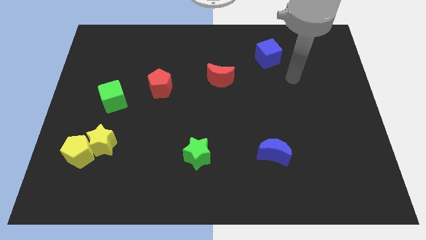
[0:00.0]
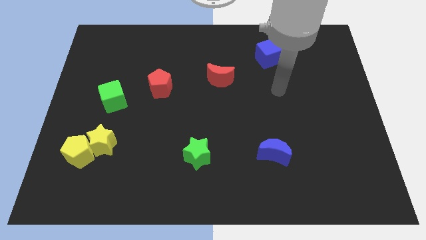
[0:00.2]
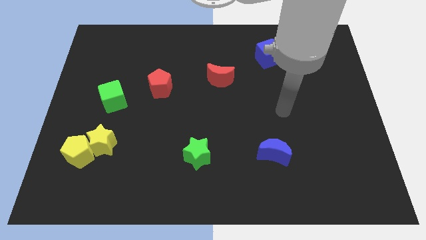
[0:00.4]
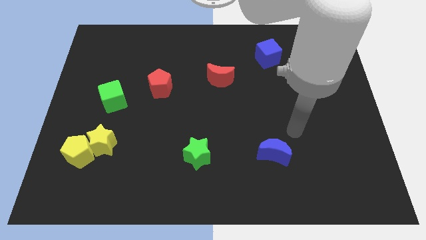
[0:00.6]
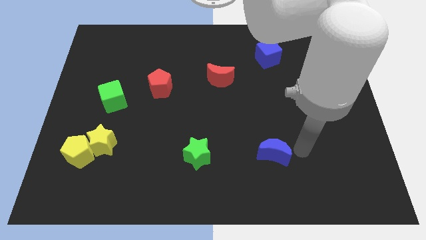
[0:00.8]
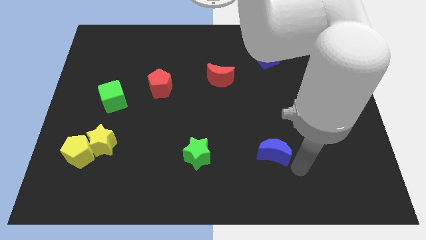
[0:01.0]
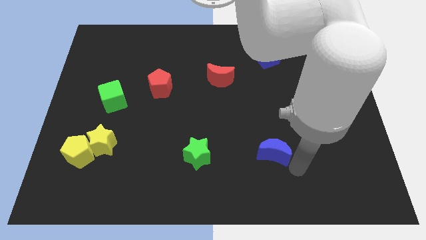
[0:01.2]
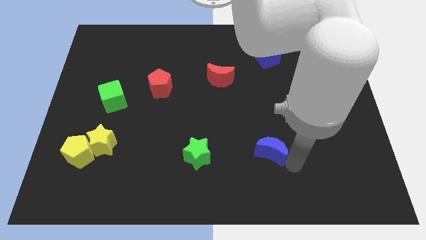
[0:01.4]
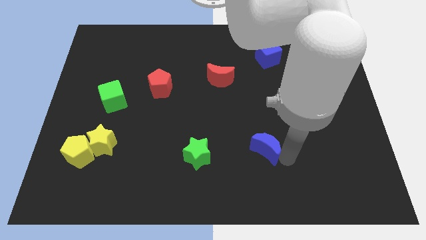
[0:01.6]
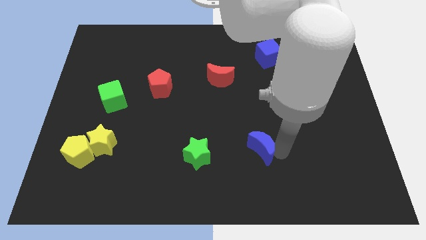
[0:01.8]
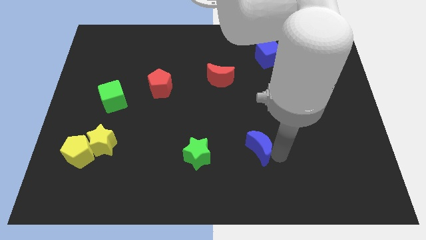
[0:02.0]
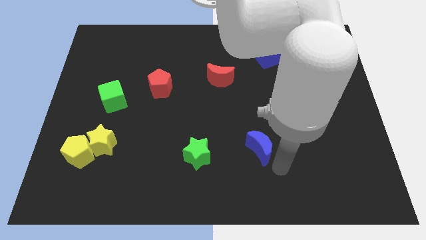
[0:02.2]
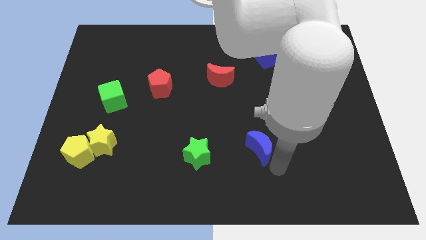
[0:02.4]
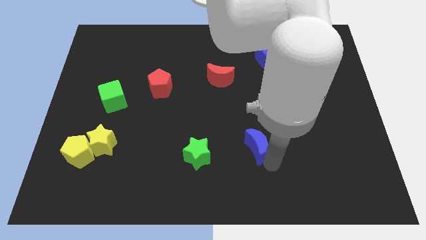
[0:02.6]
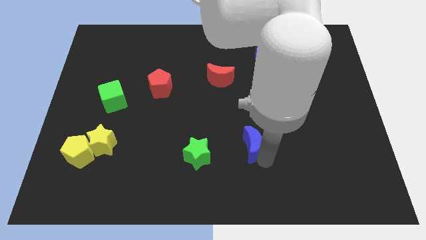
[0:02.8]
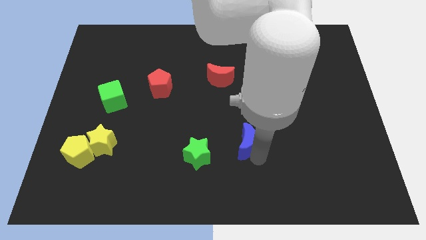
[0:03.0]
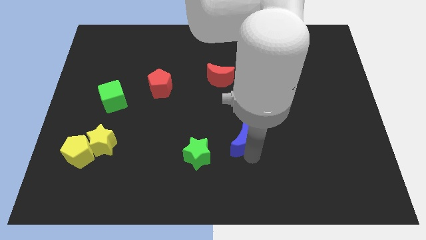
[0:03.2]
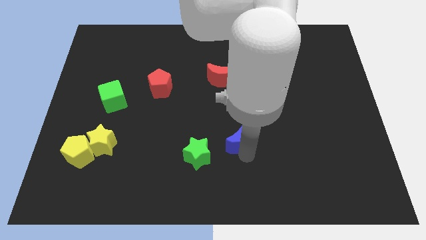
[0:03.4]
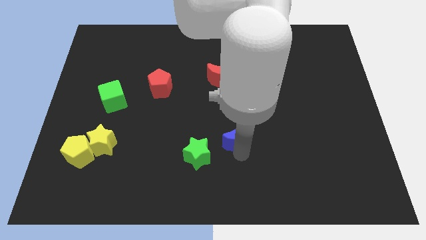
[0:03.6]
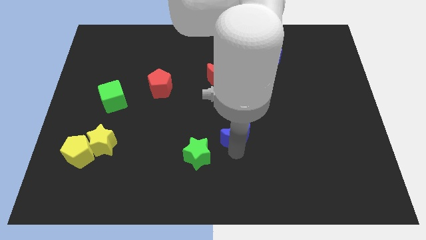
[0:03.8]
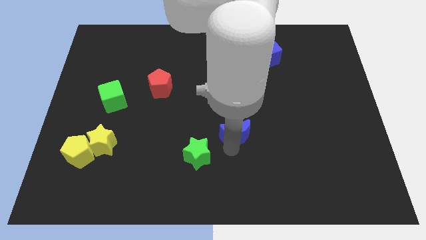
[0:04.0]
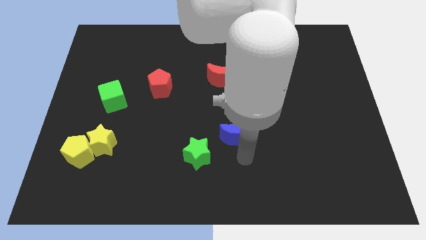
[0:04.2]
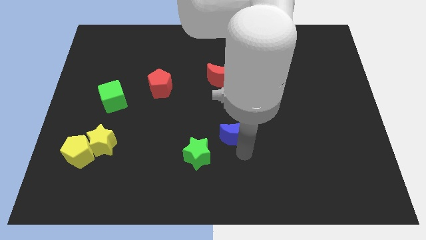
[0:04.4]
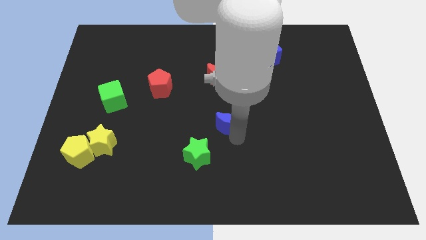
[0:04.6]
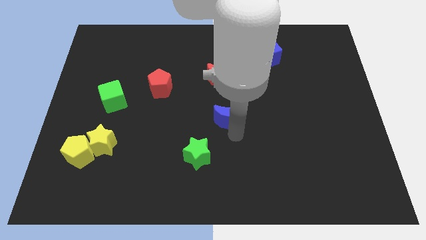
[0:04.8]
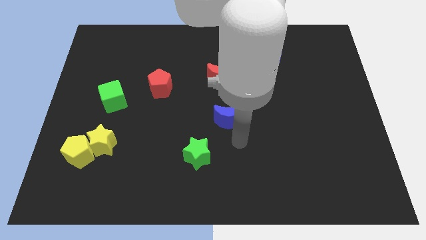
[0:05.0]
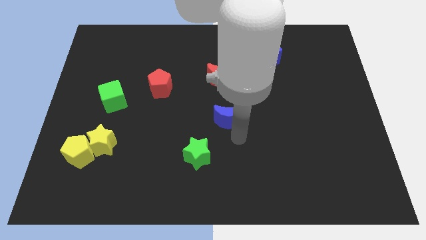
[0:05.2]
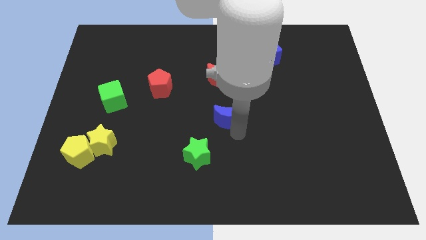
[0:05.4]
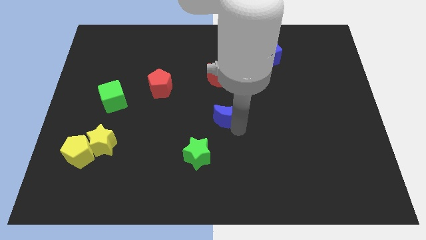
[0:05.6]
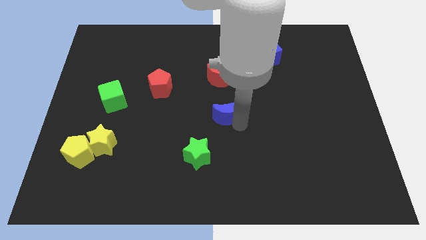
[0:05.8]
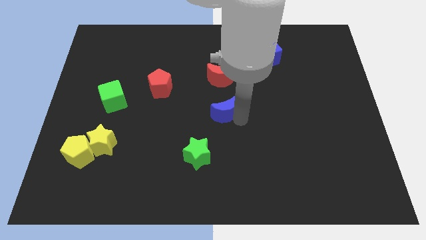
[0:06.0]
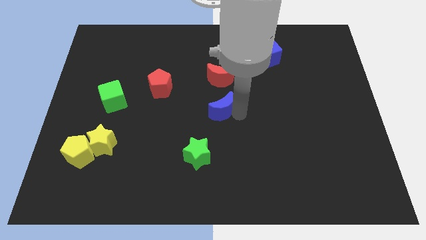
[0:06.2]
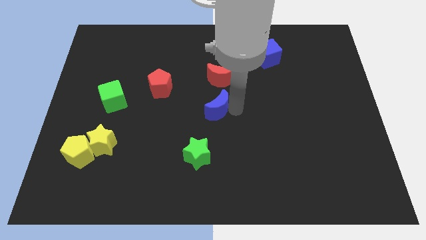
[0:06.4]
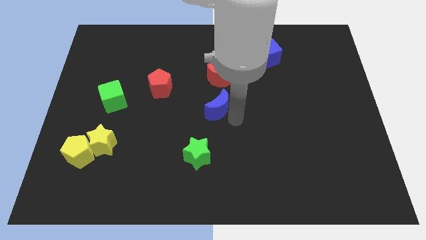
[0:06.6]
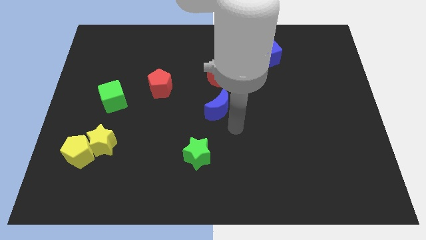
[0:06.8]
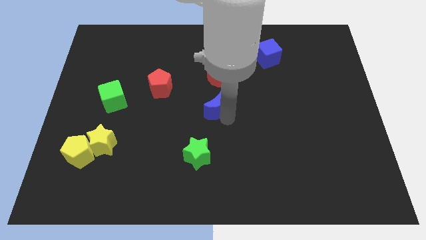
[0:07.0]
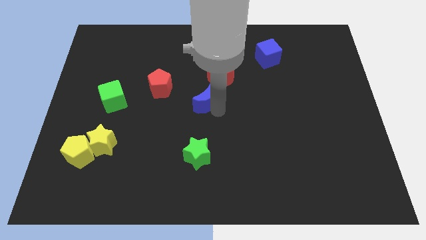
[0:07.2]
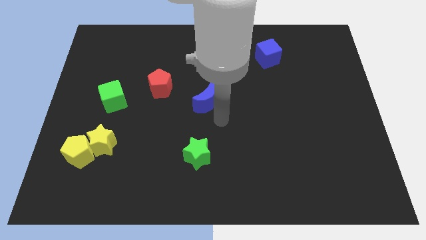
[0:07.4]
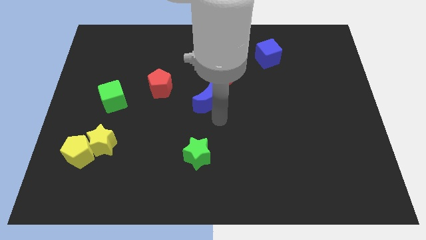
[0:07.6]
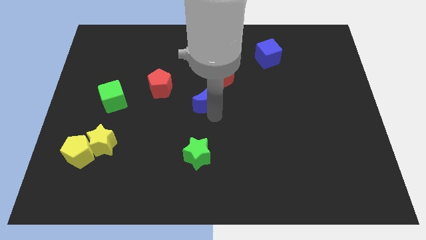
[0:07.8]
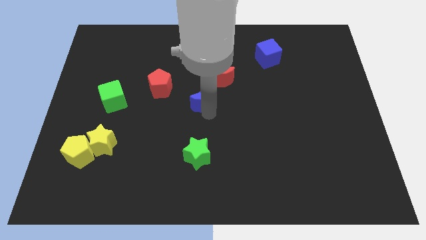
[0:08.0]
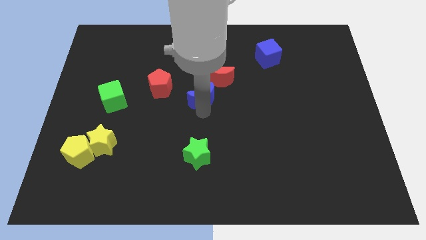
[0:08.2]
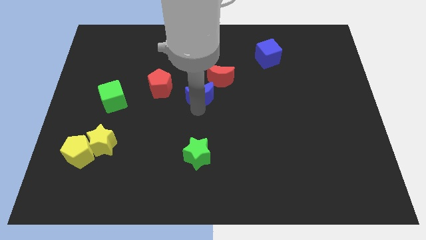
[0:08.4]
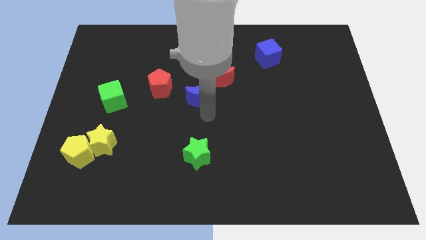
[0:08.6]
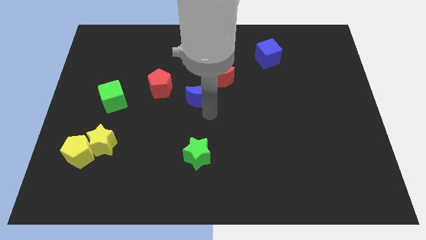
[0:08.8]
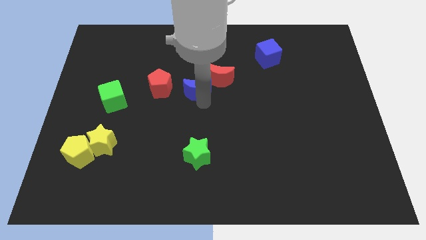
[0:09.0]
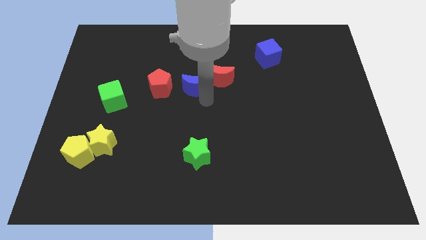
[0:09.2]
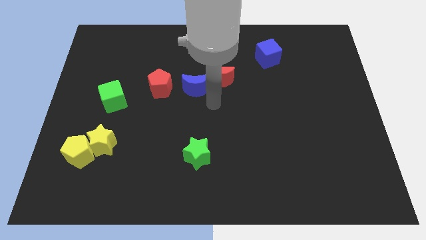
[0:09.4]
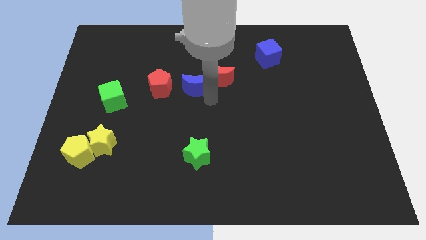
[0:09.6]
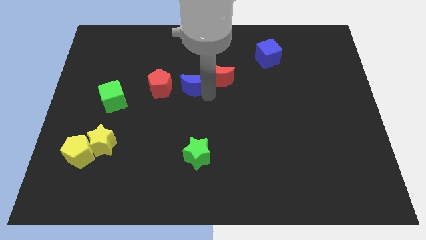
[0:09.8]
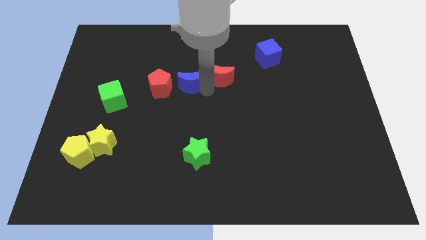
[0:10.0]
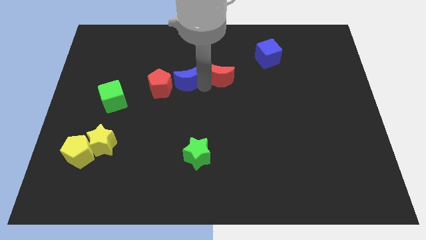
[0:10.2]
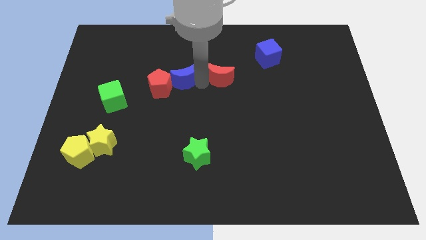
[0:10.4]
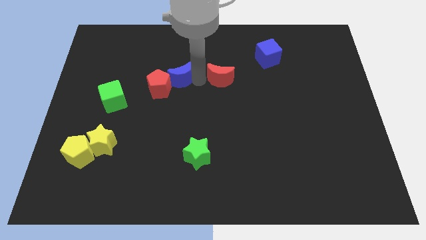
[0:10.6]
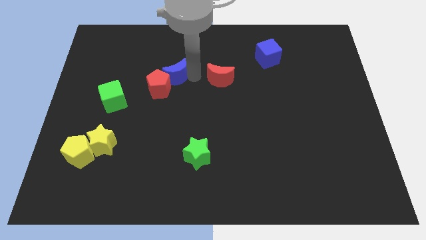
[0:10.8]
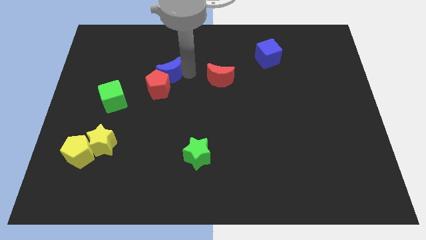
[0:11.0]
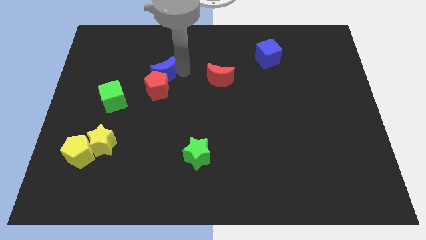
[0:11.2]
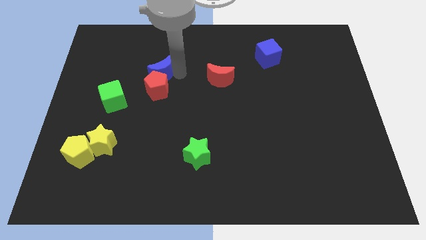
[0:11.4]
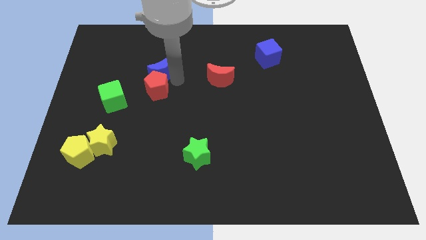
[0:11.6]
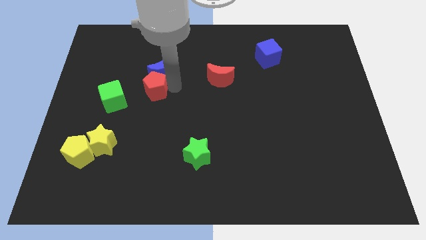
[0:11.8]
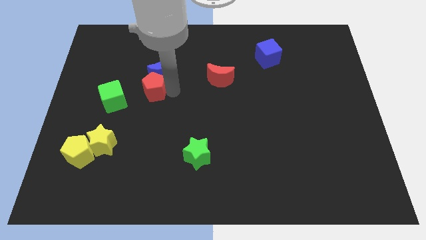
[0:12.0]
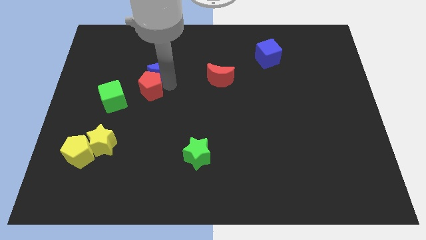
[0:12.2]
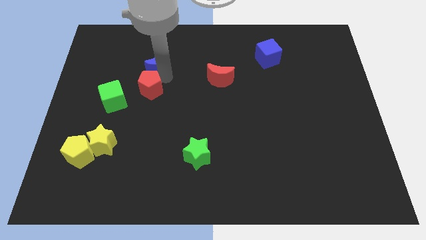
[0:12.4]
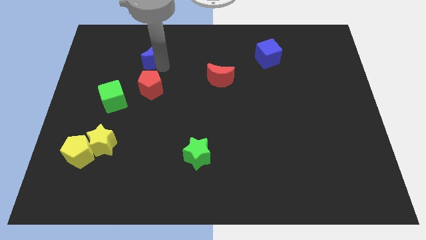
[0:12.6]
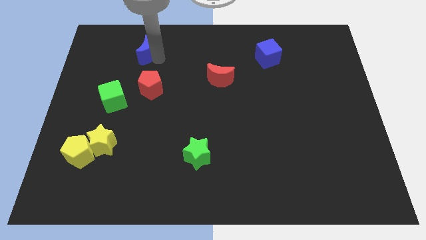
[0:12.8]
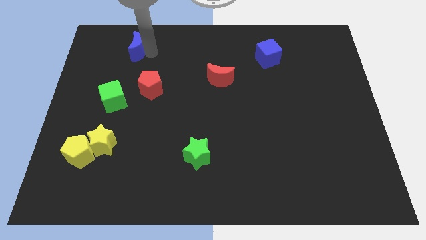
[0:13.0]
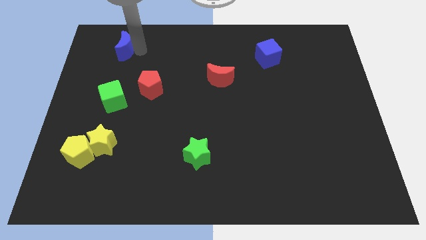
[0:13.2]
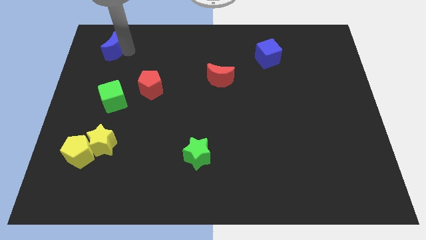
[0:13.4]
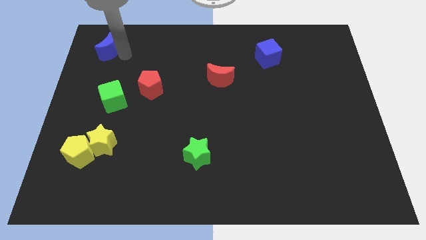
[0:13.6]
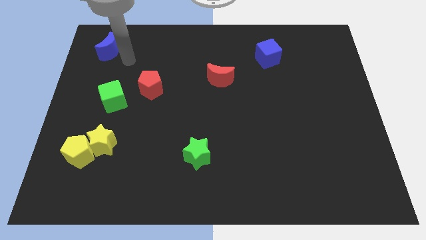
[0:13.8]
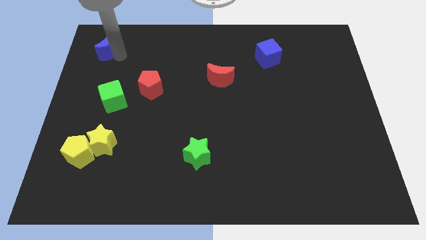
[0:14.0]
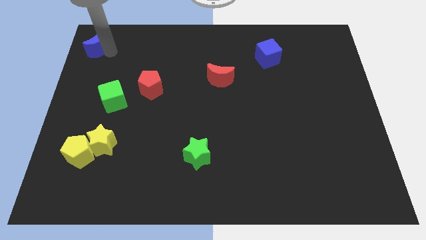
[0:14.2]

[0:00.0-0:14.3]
put the blue moon to the top left corner
